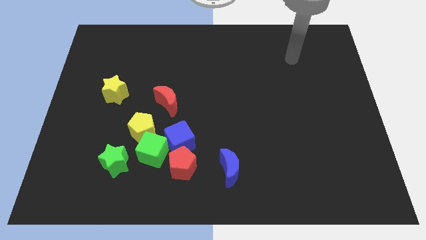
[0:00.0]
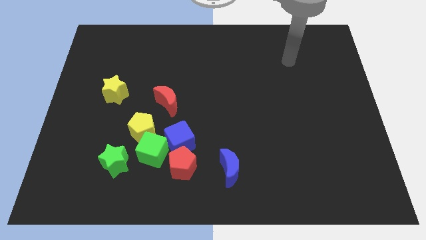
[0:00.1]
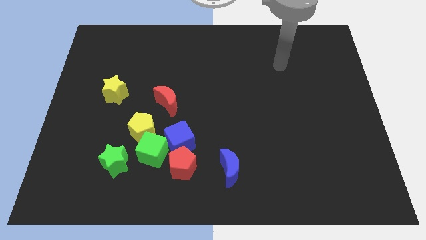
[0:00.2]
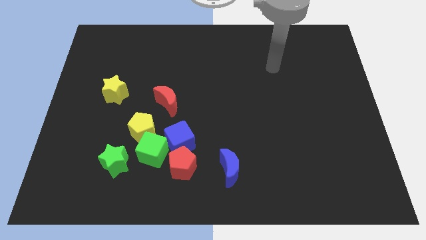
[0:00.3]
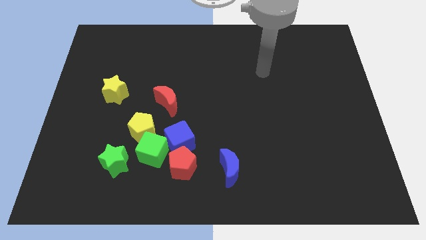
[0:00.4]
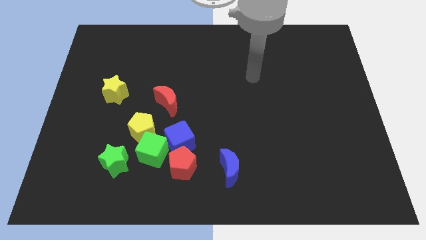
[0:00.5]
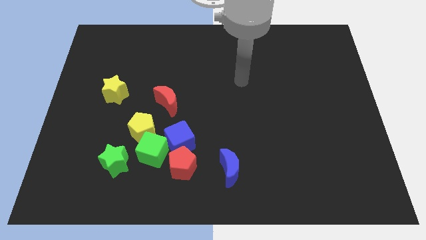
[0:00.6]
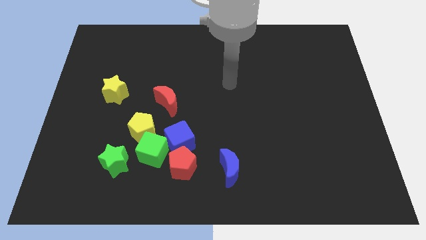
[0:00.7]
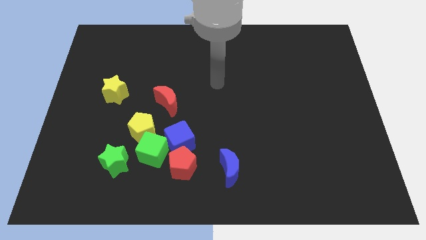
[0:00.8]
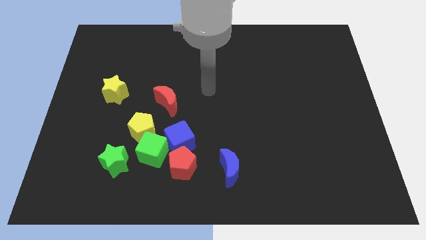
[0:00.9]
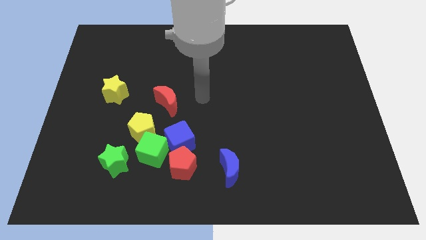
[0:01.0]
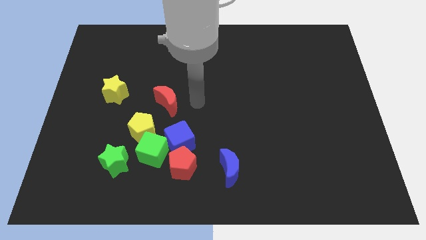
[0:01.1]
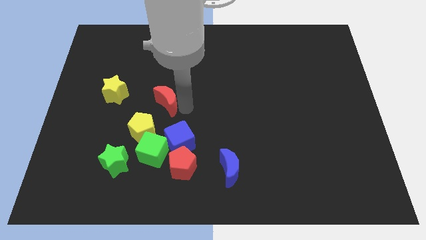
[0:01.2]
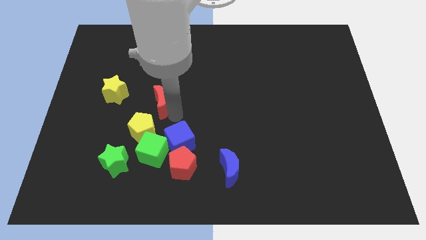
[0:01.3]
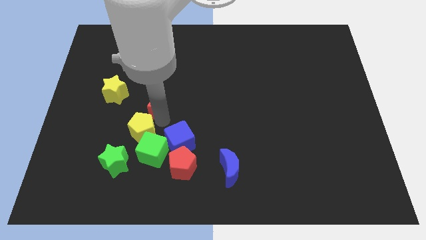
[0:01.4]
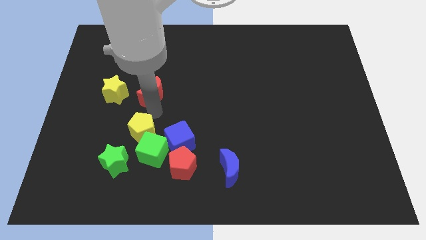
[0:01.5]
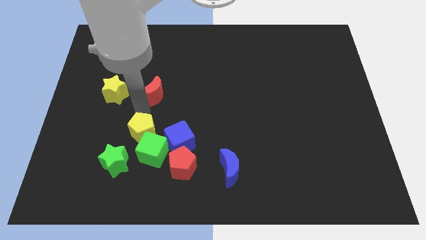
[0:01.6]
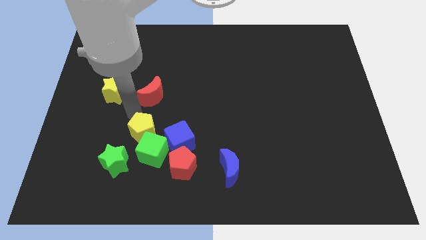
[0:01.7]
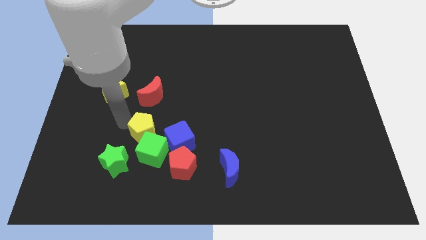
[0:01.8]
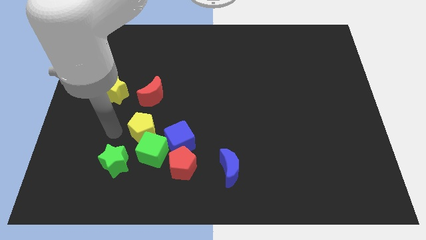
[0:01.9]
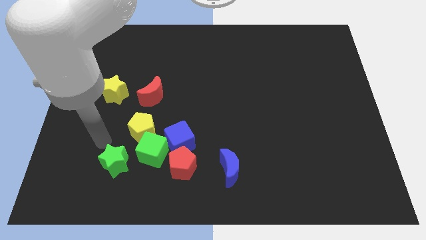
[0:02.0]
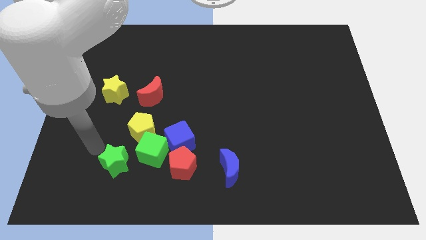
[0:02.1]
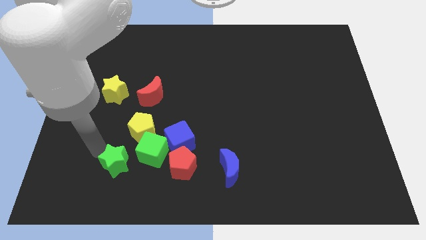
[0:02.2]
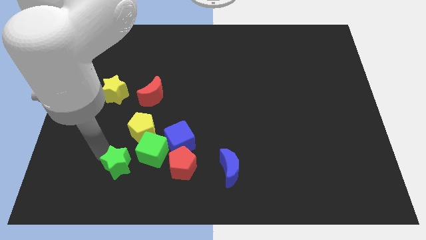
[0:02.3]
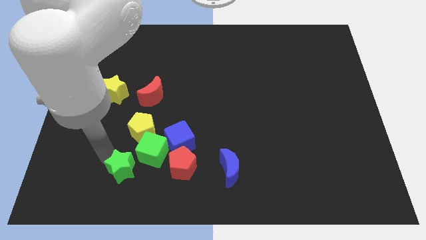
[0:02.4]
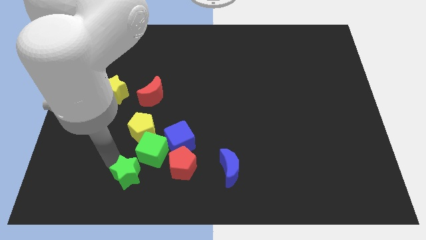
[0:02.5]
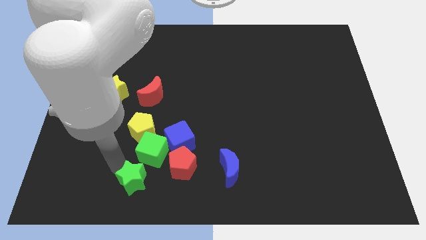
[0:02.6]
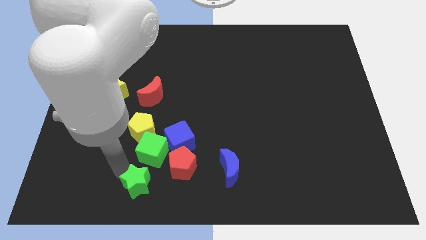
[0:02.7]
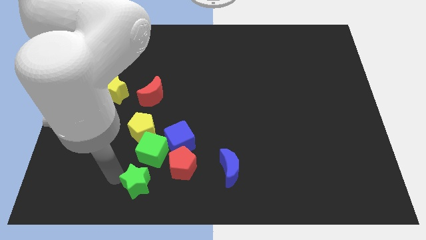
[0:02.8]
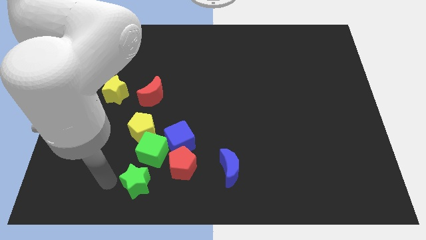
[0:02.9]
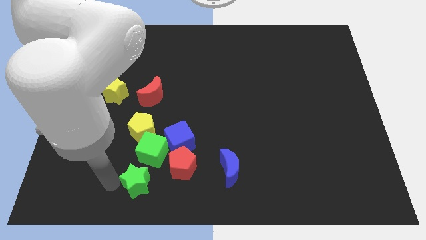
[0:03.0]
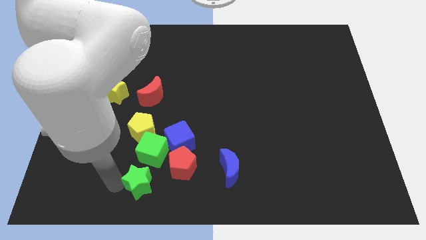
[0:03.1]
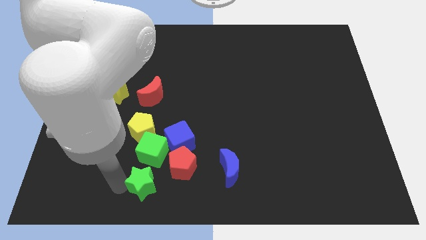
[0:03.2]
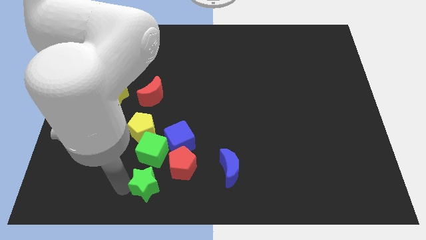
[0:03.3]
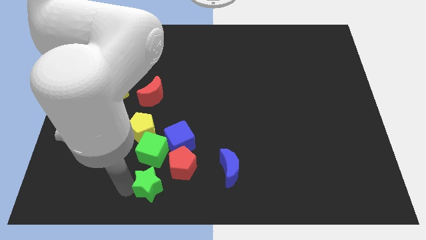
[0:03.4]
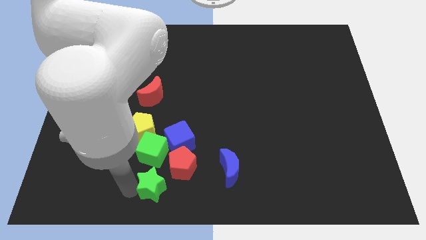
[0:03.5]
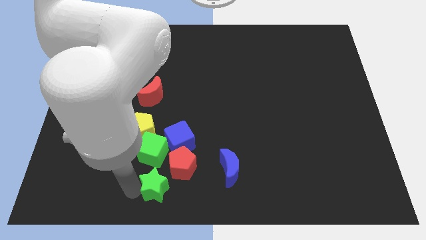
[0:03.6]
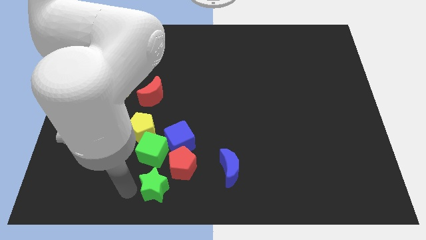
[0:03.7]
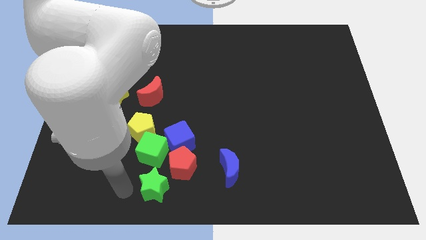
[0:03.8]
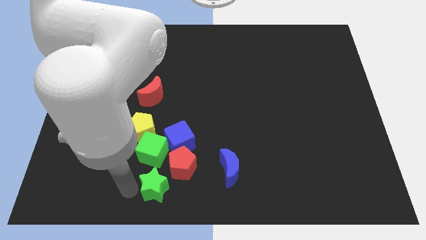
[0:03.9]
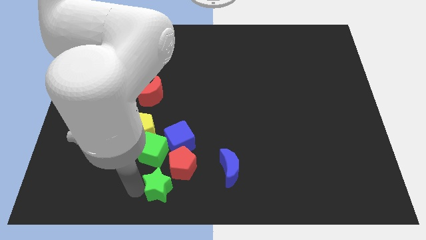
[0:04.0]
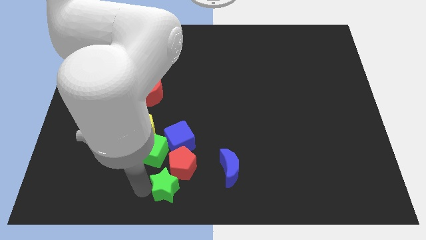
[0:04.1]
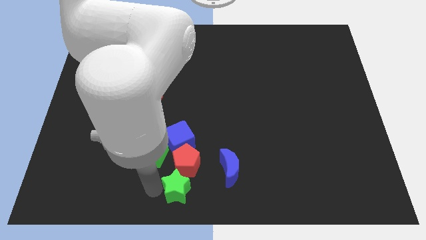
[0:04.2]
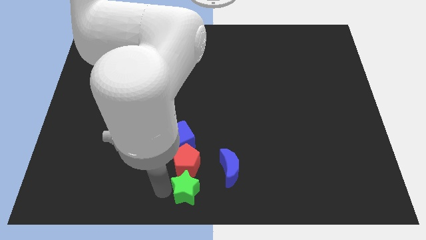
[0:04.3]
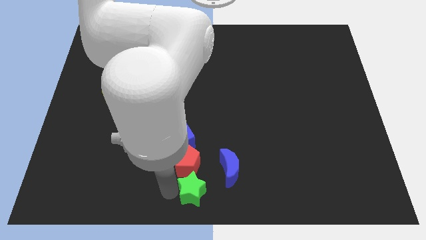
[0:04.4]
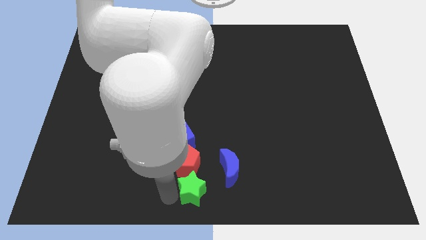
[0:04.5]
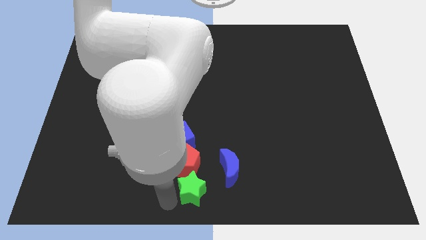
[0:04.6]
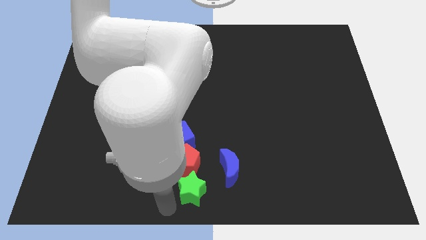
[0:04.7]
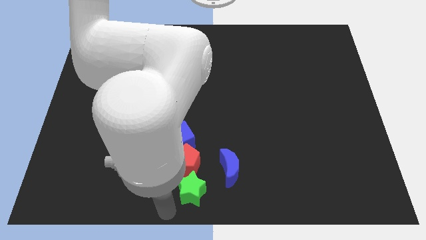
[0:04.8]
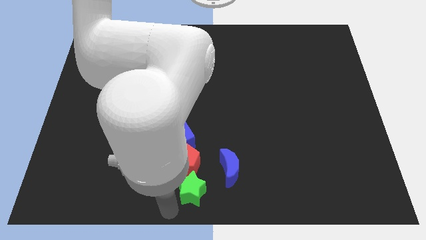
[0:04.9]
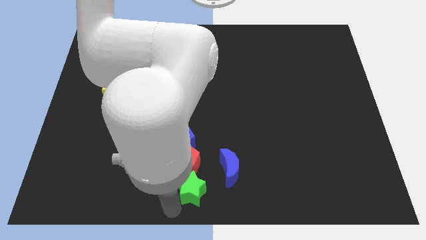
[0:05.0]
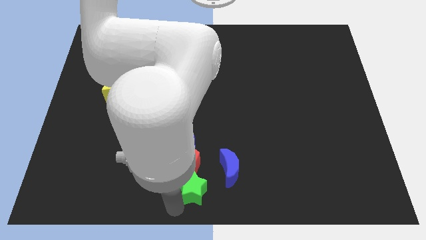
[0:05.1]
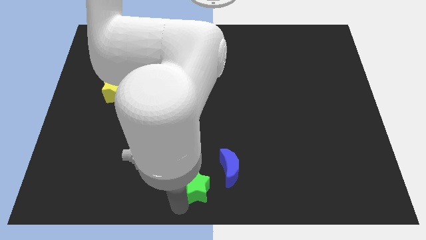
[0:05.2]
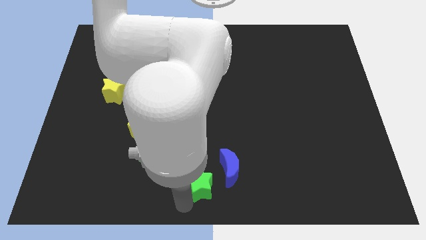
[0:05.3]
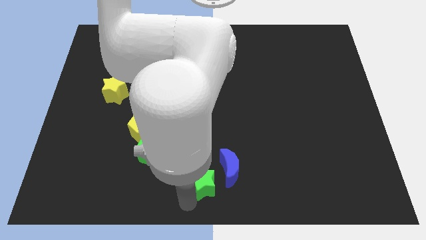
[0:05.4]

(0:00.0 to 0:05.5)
slide the green star close to the blue moon

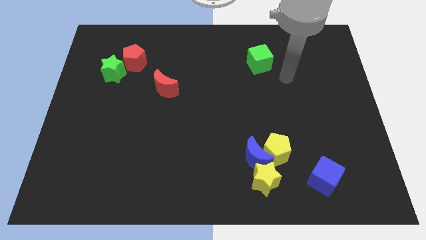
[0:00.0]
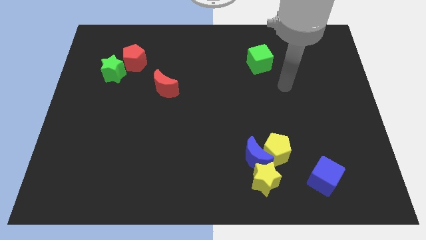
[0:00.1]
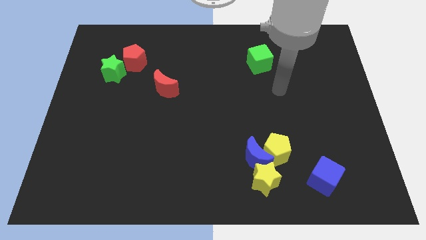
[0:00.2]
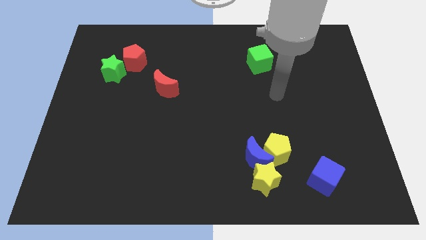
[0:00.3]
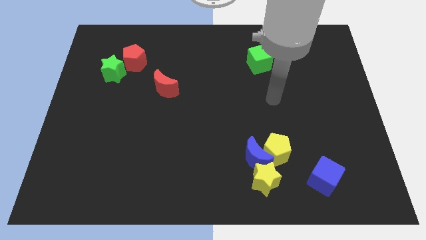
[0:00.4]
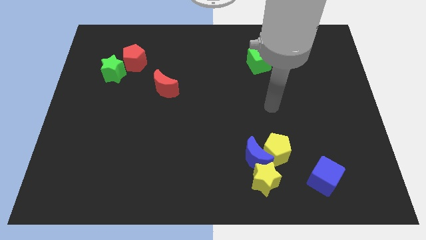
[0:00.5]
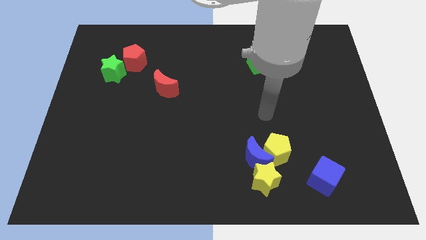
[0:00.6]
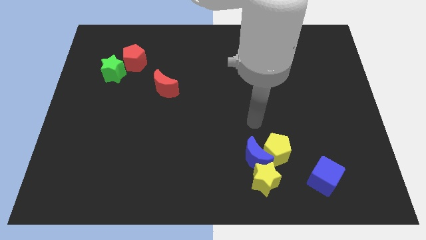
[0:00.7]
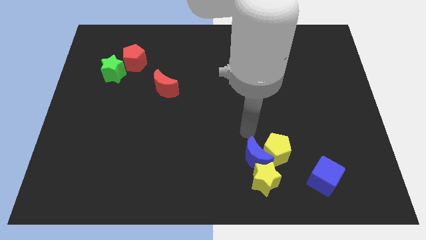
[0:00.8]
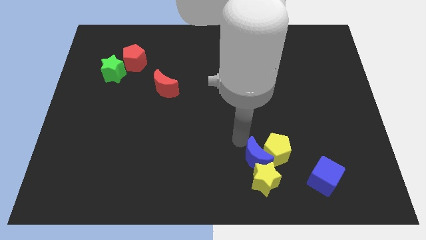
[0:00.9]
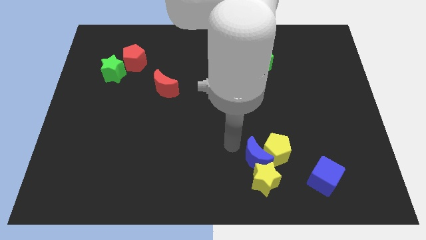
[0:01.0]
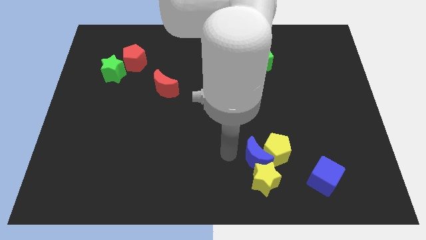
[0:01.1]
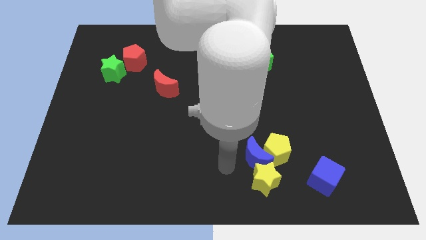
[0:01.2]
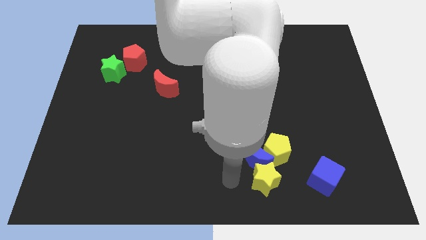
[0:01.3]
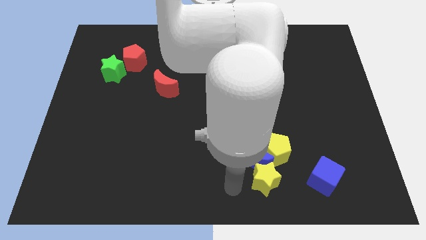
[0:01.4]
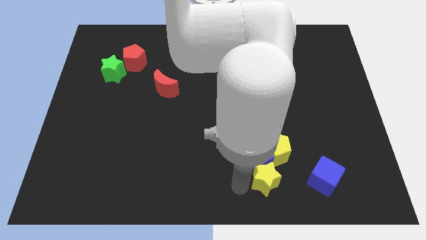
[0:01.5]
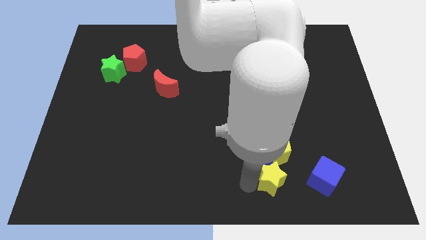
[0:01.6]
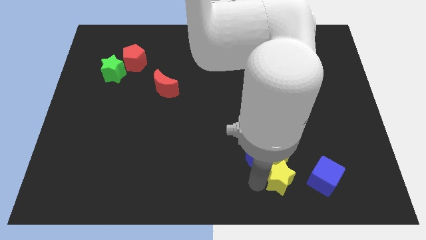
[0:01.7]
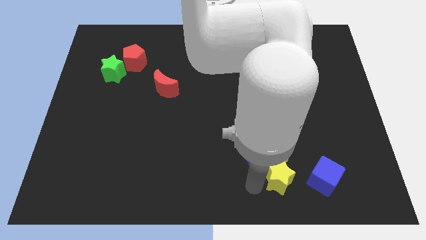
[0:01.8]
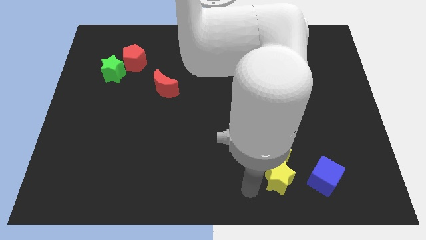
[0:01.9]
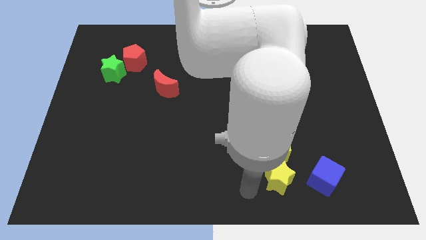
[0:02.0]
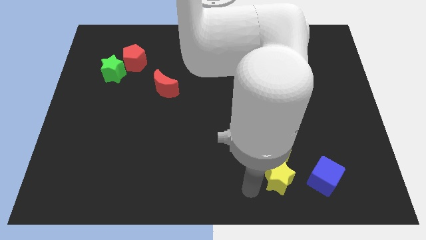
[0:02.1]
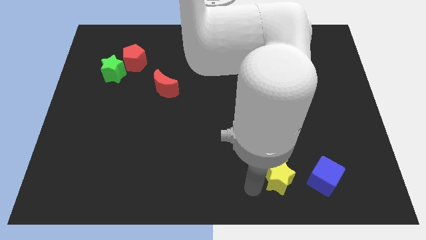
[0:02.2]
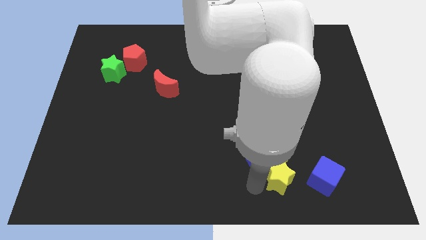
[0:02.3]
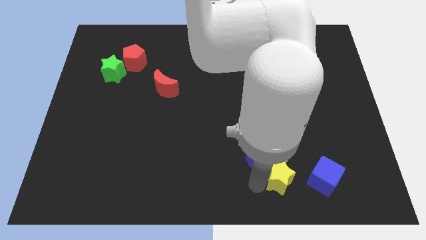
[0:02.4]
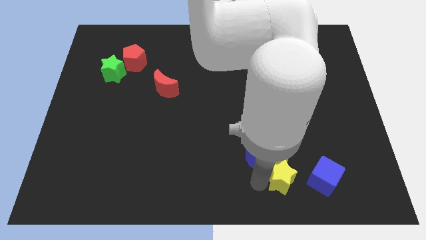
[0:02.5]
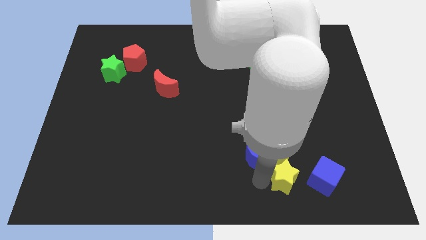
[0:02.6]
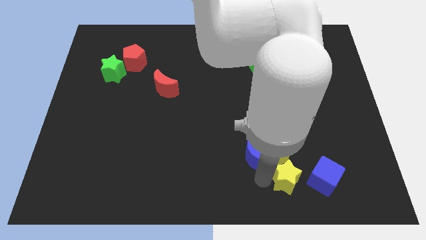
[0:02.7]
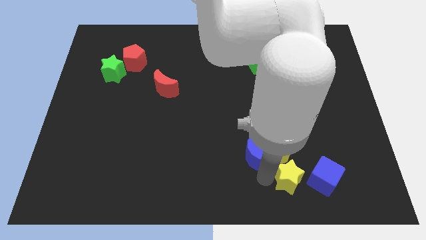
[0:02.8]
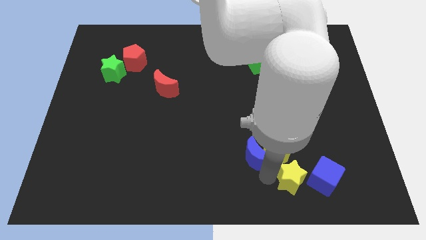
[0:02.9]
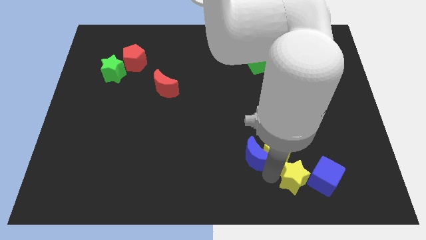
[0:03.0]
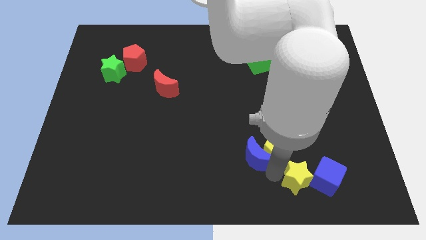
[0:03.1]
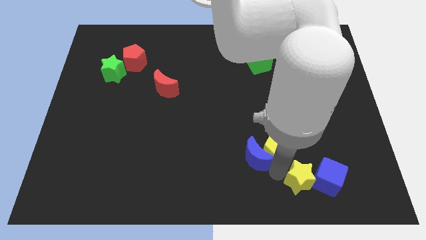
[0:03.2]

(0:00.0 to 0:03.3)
slide the yellow star to the blue cube
